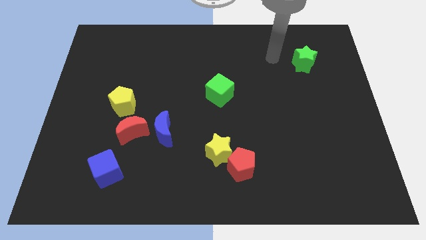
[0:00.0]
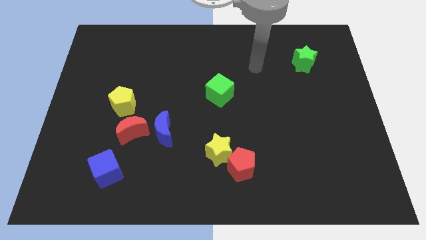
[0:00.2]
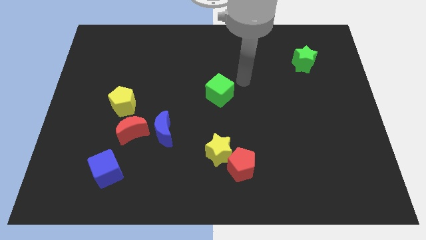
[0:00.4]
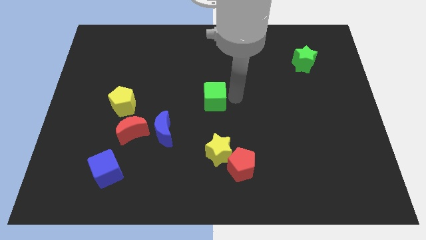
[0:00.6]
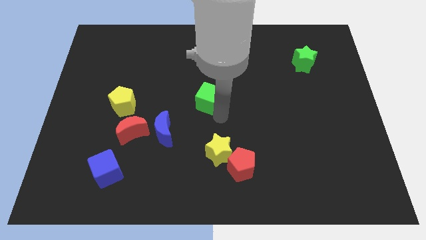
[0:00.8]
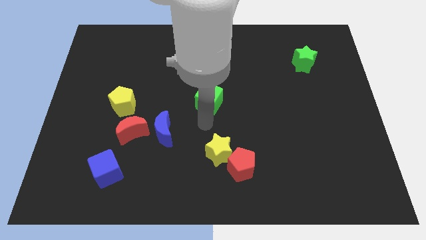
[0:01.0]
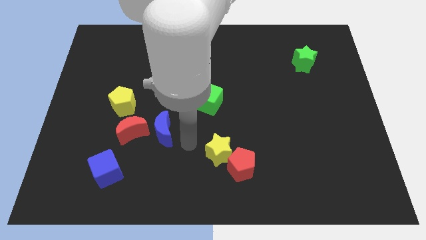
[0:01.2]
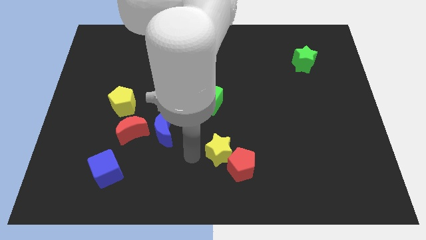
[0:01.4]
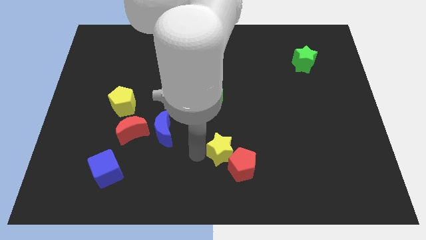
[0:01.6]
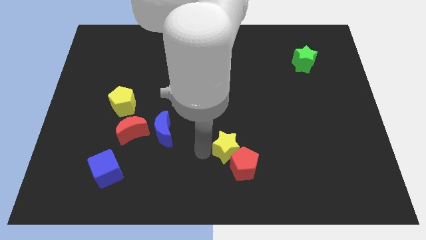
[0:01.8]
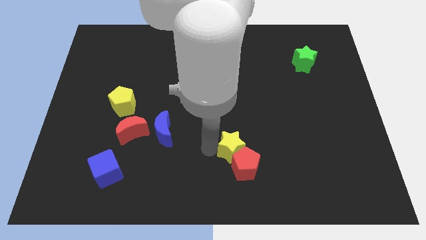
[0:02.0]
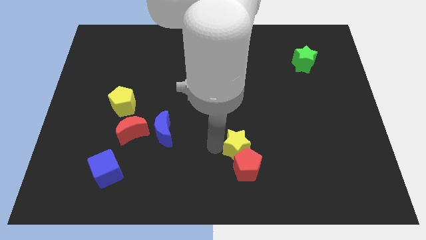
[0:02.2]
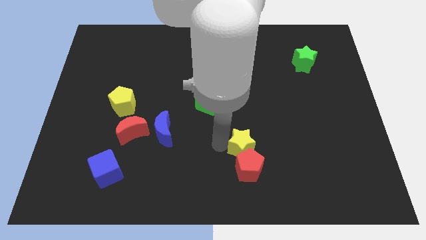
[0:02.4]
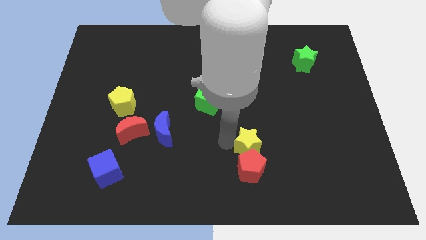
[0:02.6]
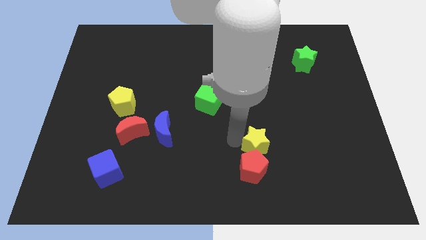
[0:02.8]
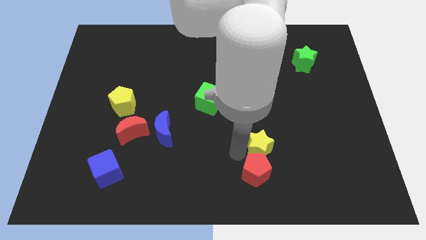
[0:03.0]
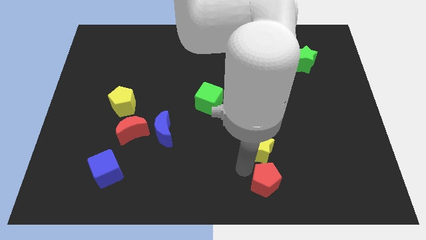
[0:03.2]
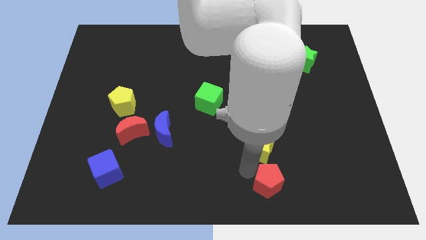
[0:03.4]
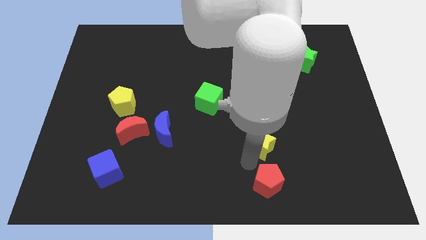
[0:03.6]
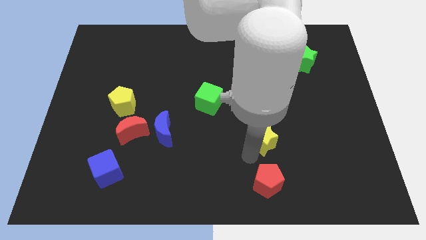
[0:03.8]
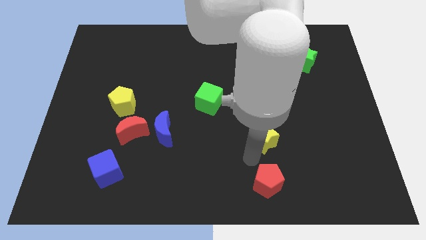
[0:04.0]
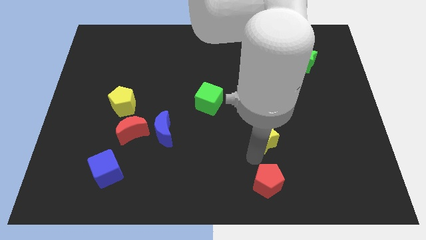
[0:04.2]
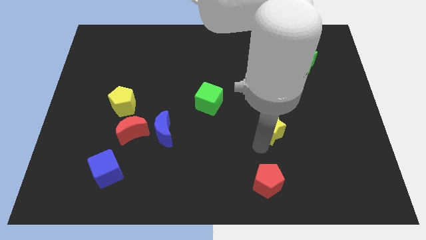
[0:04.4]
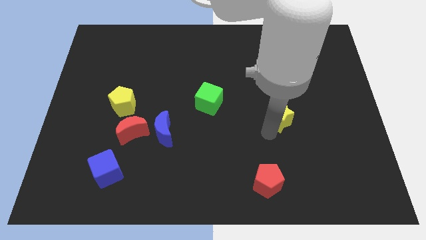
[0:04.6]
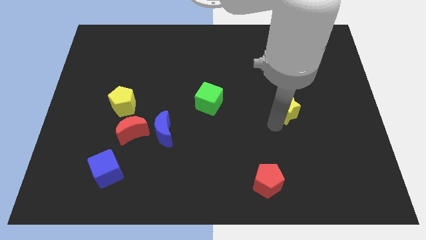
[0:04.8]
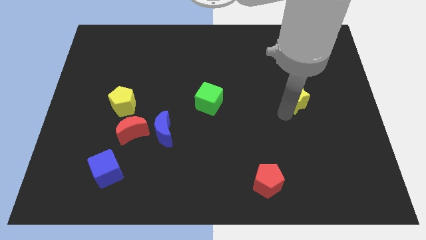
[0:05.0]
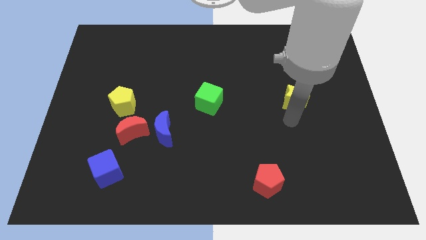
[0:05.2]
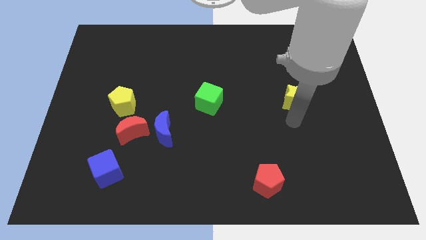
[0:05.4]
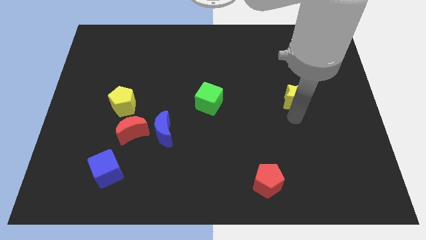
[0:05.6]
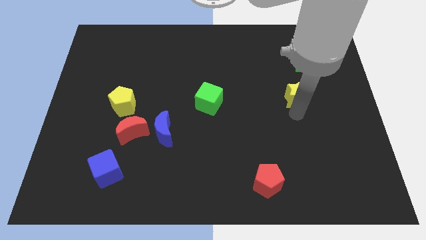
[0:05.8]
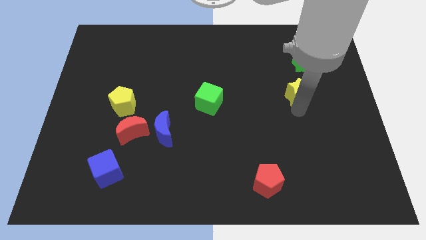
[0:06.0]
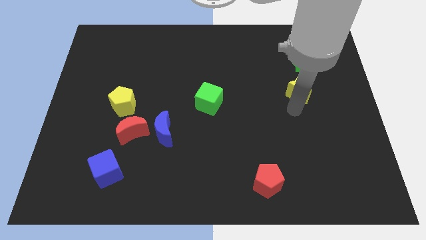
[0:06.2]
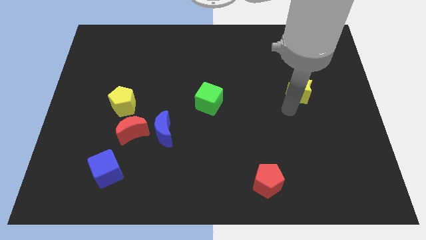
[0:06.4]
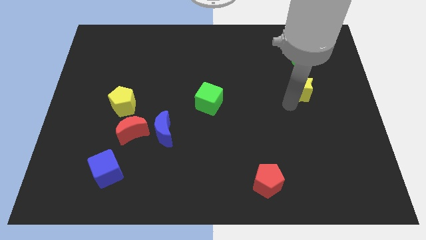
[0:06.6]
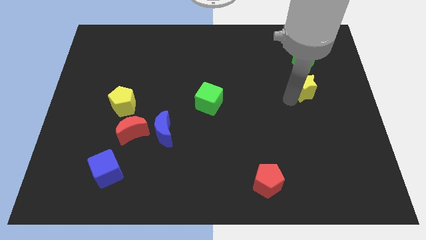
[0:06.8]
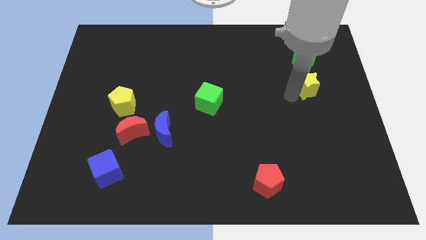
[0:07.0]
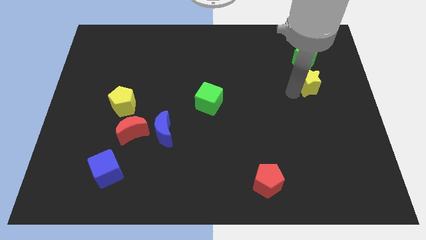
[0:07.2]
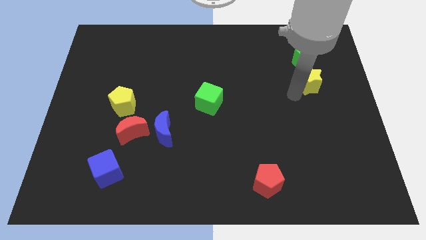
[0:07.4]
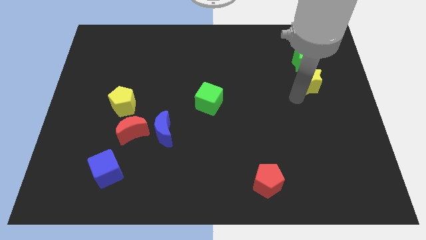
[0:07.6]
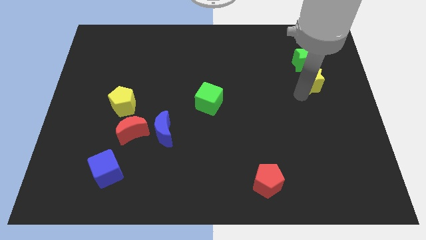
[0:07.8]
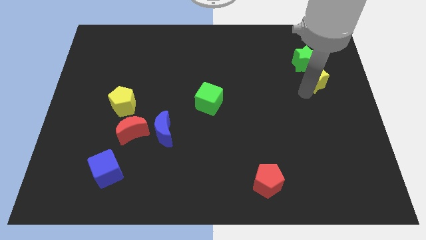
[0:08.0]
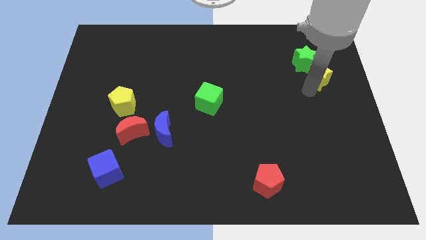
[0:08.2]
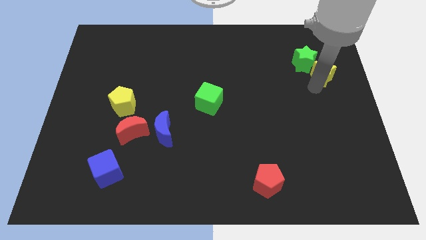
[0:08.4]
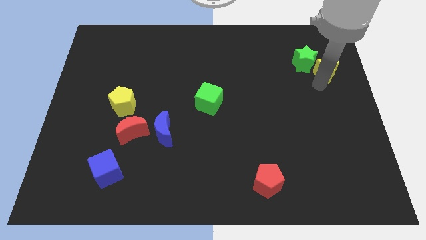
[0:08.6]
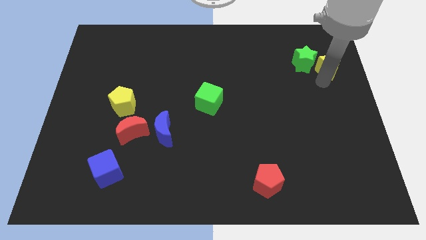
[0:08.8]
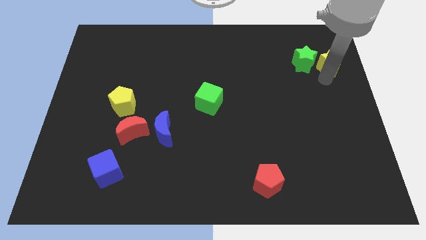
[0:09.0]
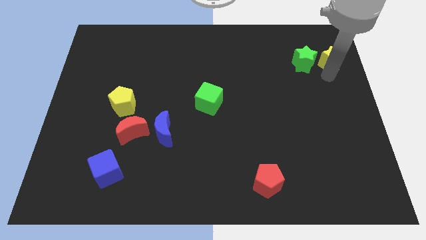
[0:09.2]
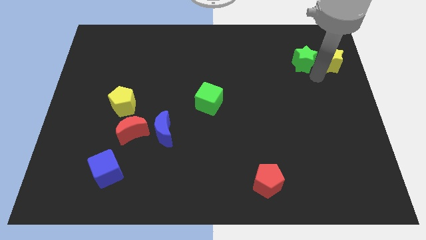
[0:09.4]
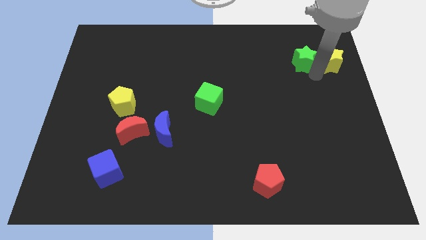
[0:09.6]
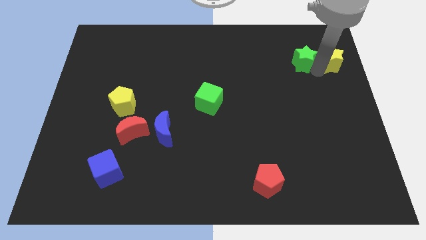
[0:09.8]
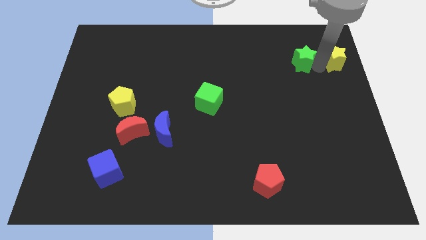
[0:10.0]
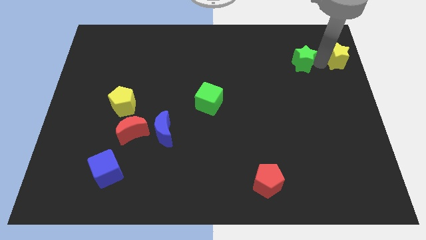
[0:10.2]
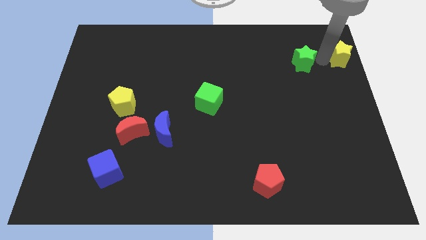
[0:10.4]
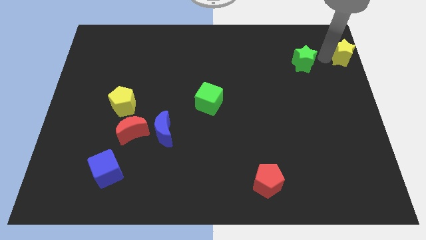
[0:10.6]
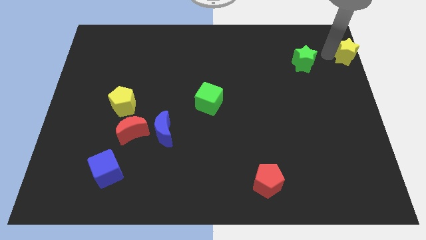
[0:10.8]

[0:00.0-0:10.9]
push the yellow star to the top right corner

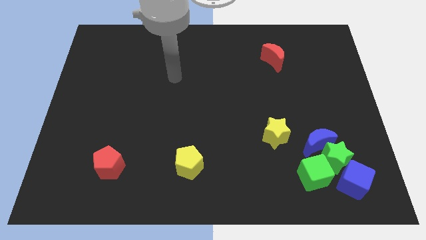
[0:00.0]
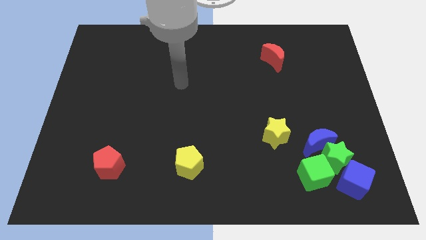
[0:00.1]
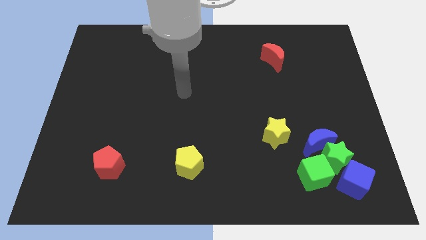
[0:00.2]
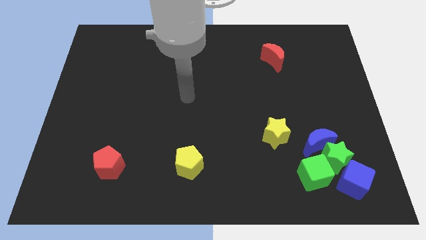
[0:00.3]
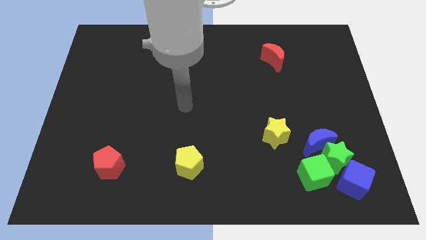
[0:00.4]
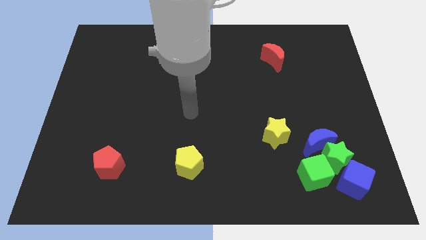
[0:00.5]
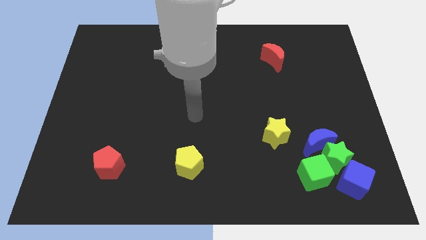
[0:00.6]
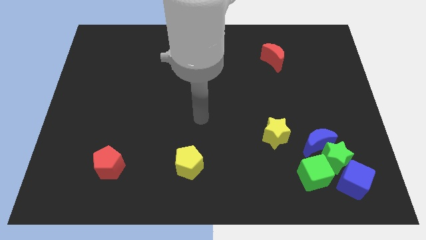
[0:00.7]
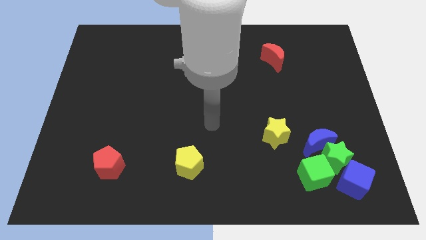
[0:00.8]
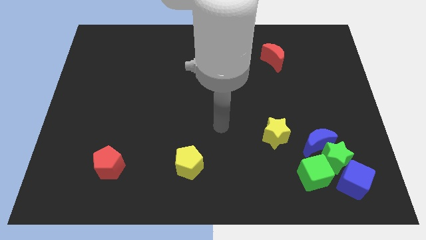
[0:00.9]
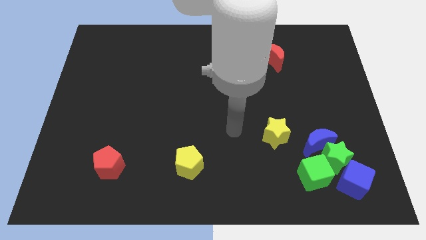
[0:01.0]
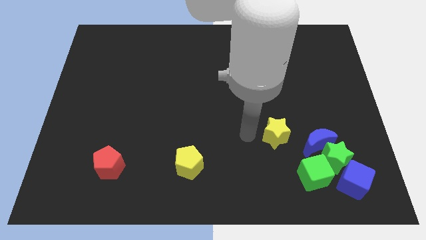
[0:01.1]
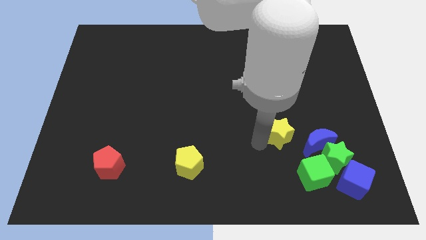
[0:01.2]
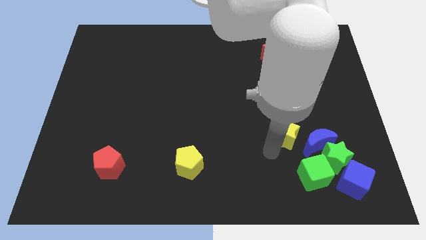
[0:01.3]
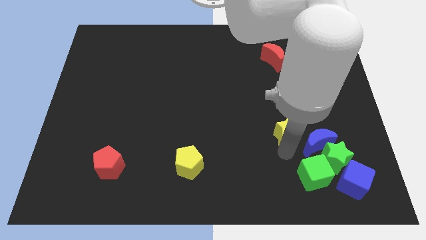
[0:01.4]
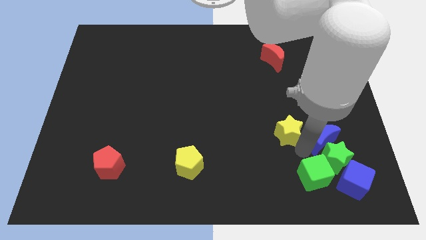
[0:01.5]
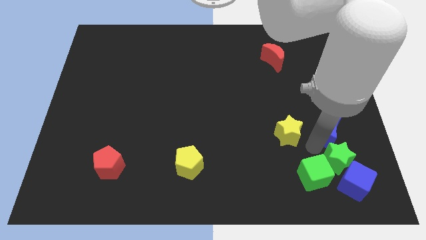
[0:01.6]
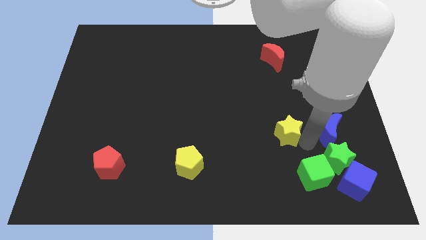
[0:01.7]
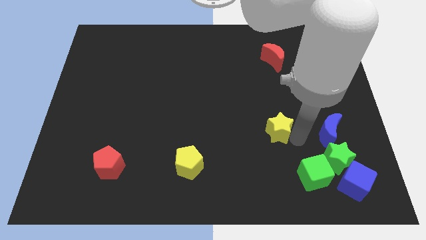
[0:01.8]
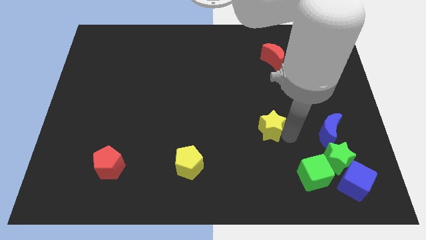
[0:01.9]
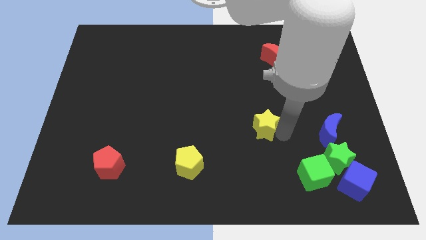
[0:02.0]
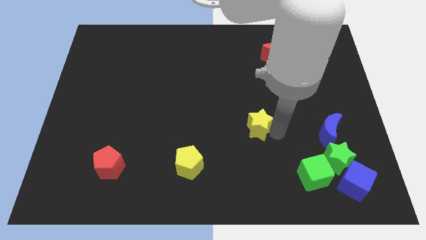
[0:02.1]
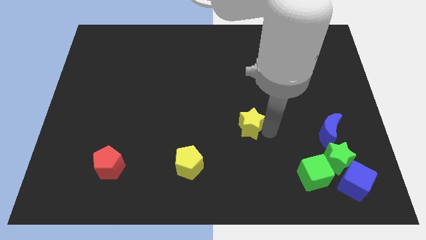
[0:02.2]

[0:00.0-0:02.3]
put the yellow star to the middle of the board

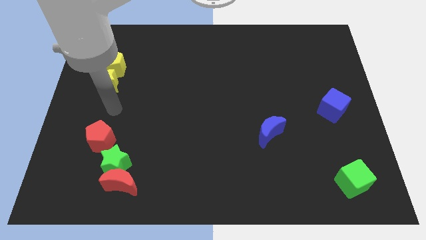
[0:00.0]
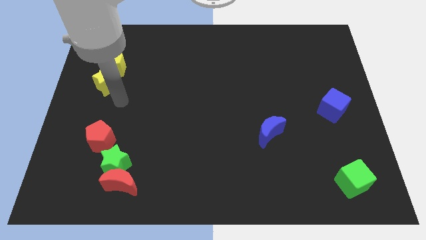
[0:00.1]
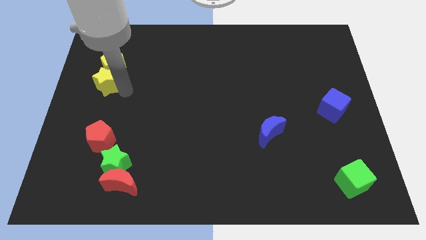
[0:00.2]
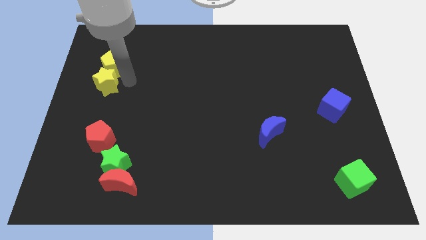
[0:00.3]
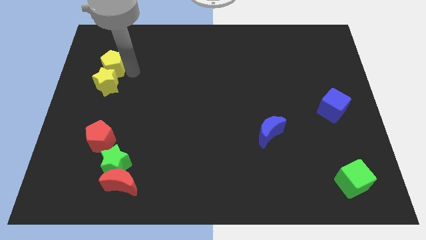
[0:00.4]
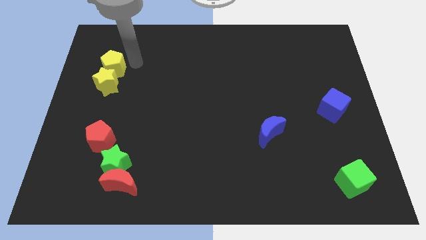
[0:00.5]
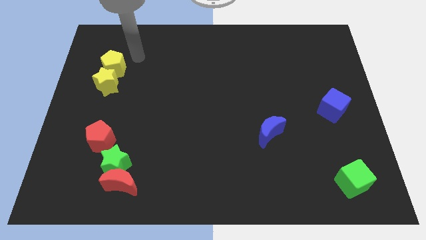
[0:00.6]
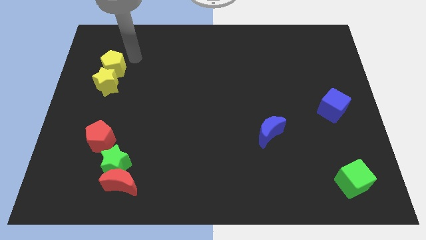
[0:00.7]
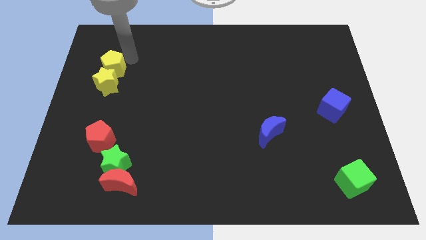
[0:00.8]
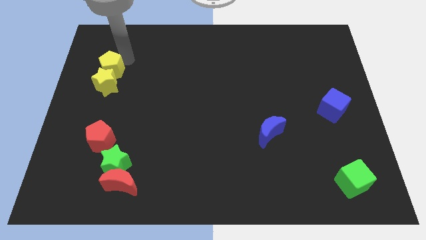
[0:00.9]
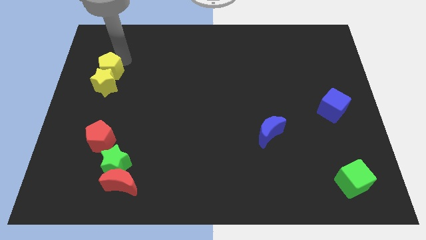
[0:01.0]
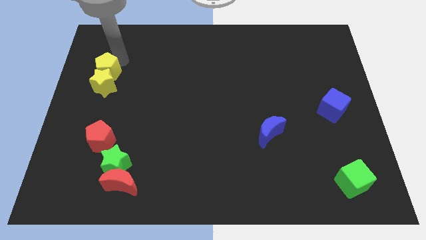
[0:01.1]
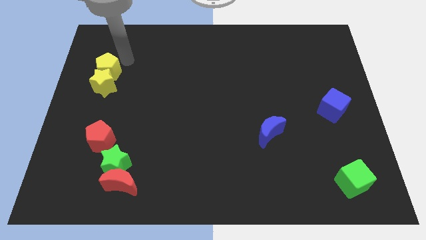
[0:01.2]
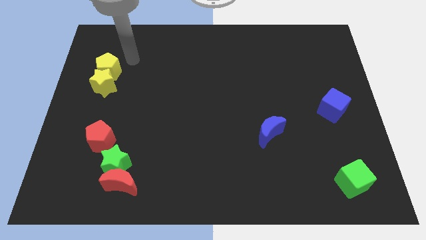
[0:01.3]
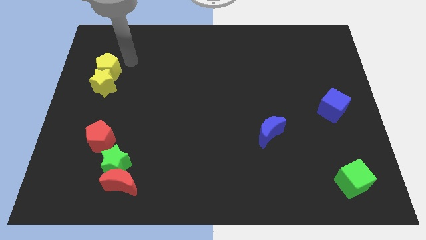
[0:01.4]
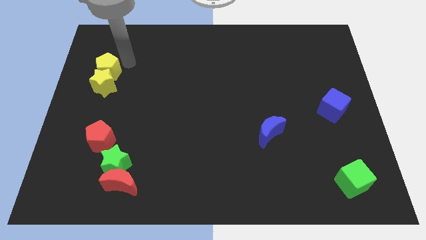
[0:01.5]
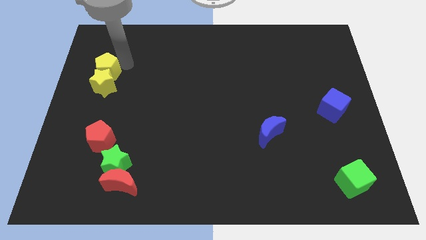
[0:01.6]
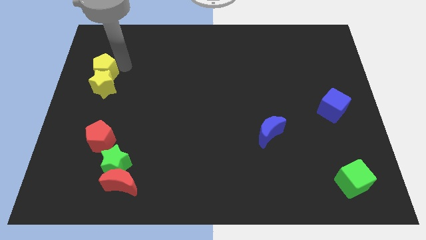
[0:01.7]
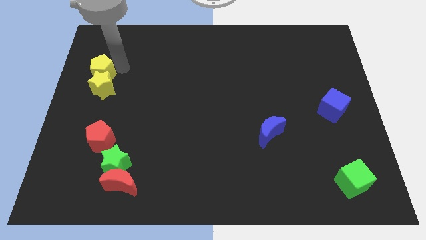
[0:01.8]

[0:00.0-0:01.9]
move the yellow pentagon to the left side
